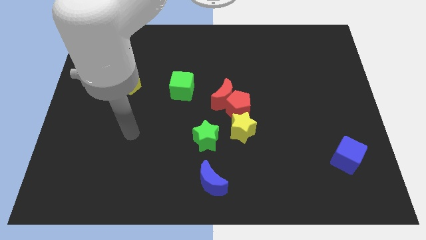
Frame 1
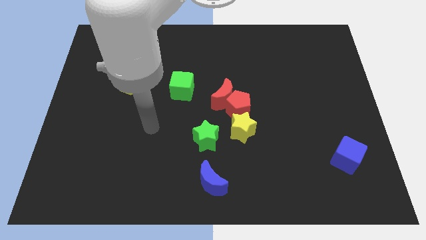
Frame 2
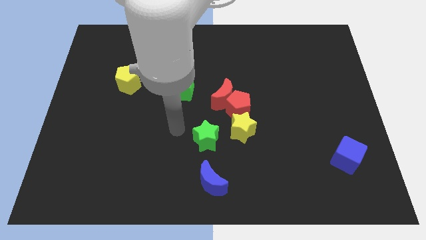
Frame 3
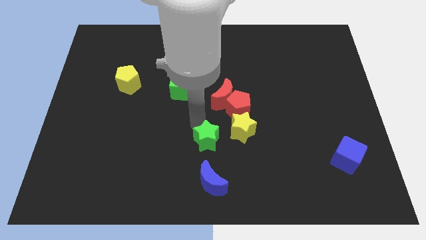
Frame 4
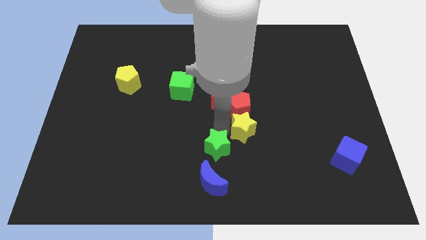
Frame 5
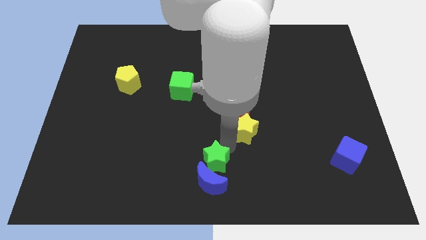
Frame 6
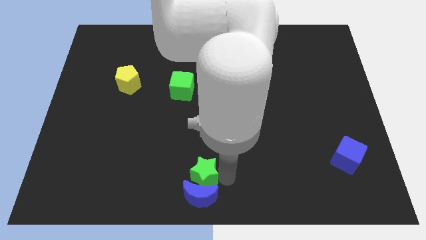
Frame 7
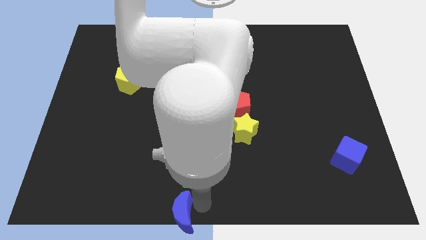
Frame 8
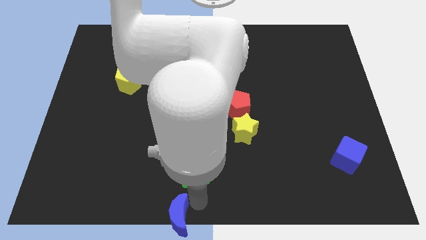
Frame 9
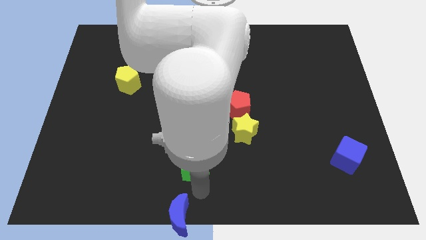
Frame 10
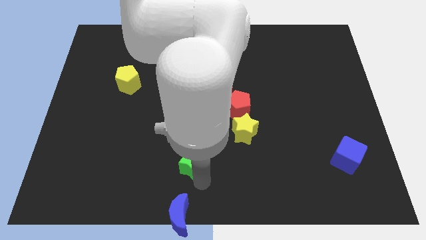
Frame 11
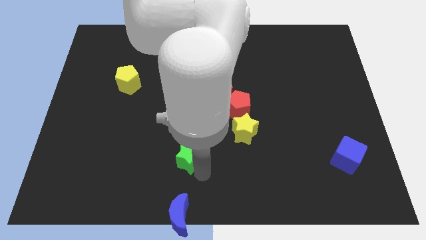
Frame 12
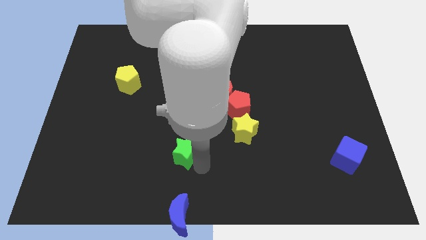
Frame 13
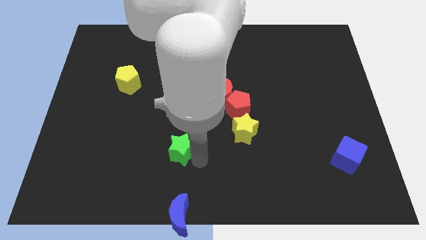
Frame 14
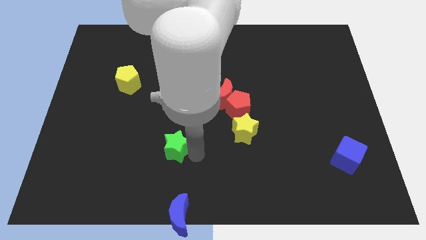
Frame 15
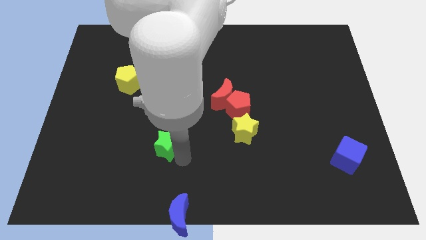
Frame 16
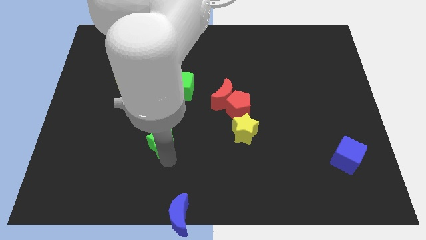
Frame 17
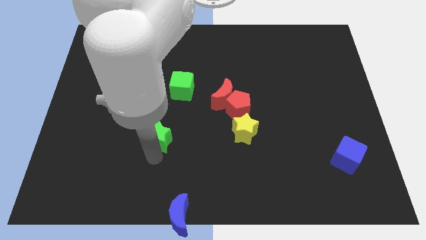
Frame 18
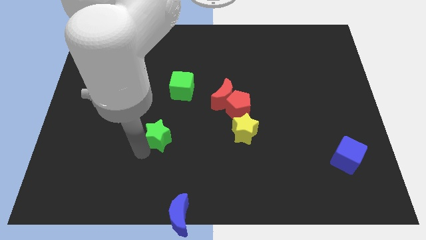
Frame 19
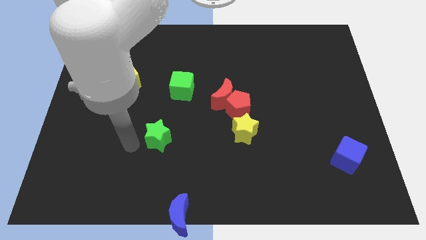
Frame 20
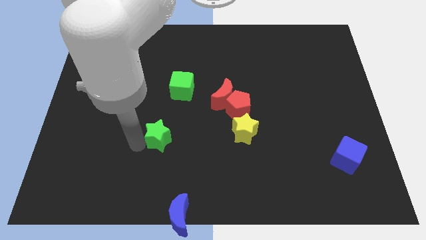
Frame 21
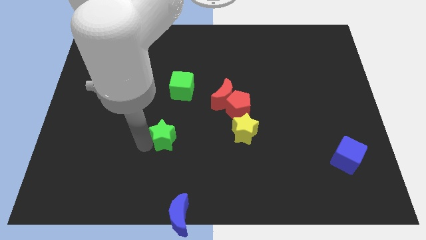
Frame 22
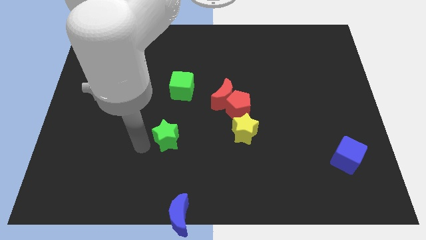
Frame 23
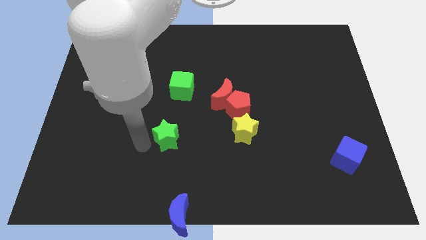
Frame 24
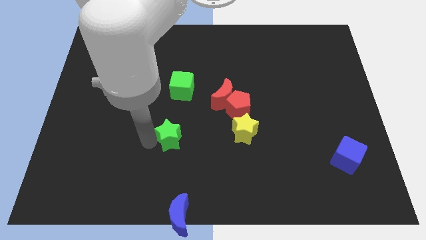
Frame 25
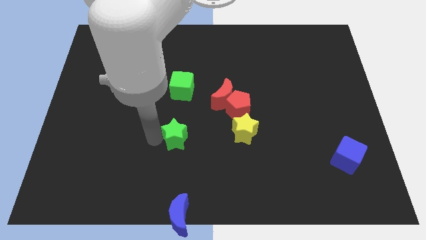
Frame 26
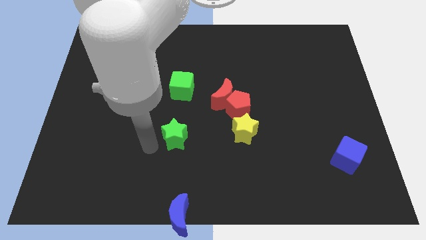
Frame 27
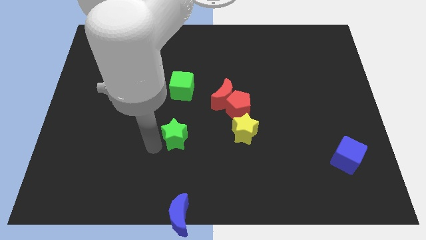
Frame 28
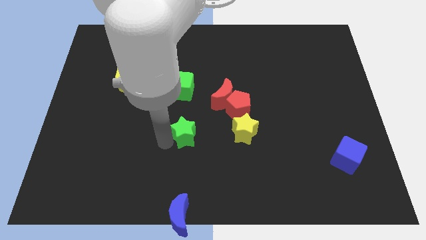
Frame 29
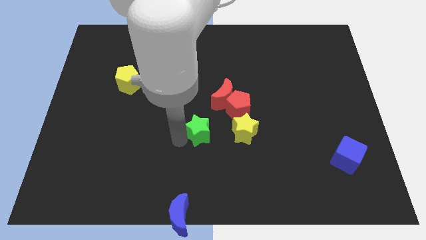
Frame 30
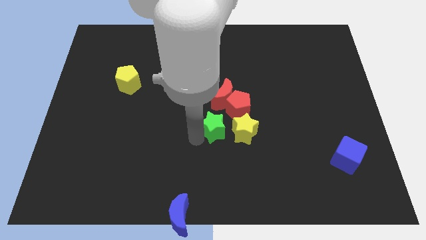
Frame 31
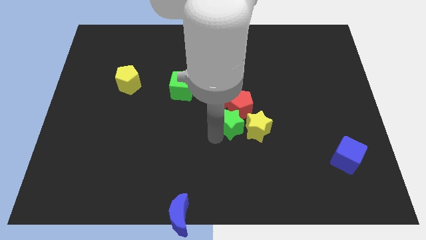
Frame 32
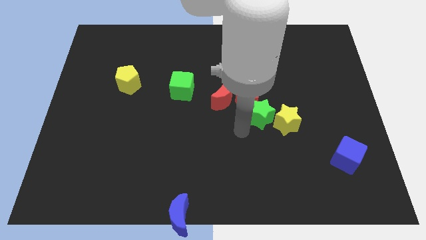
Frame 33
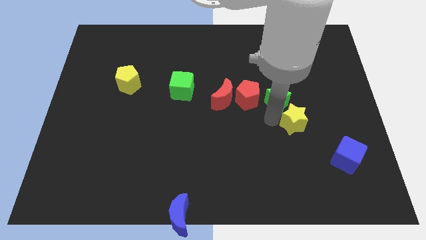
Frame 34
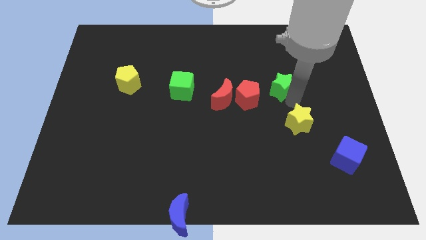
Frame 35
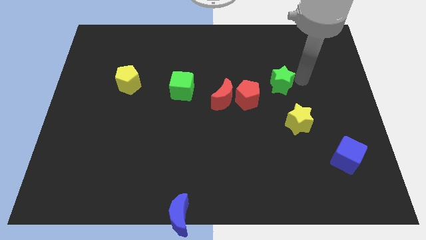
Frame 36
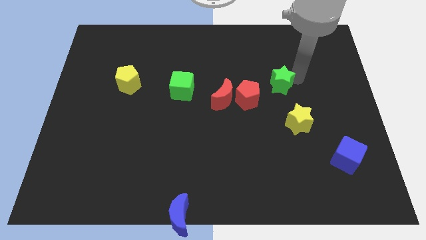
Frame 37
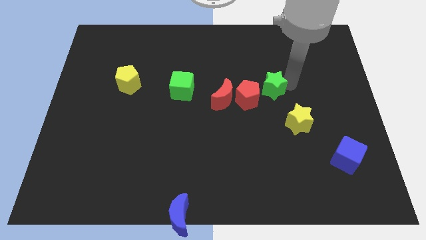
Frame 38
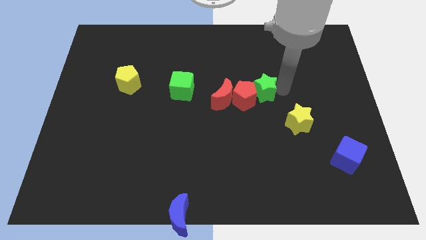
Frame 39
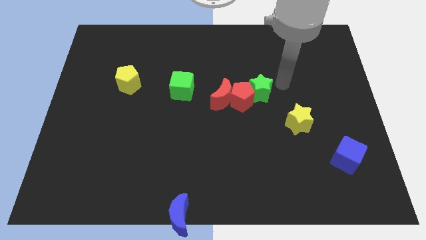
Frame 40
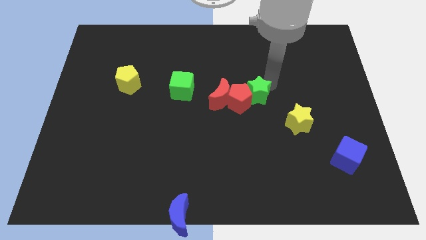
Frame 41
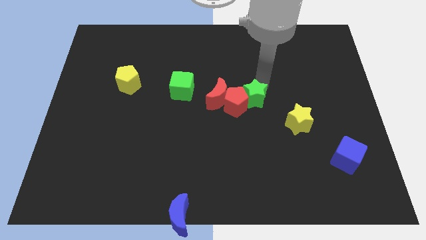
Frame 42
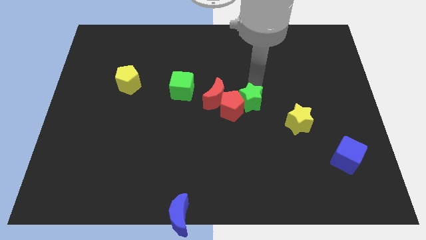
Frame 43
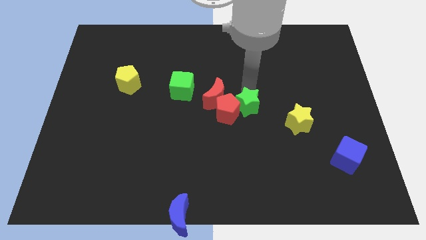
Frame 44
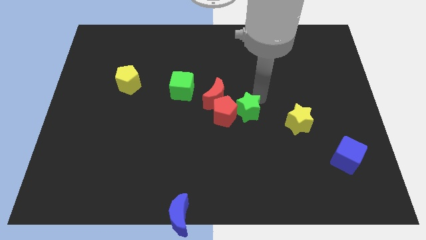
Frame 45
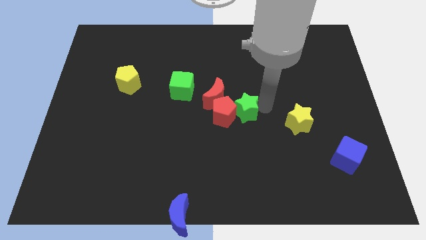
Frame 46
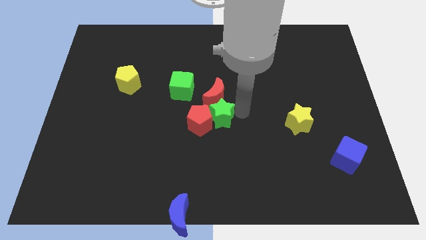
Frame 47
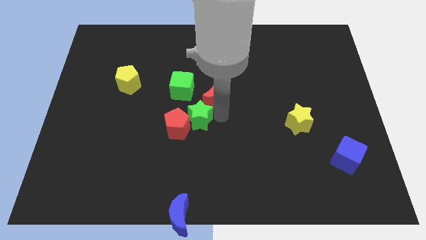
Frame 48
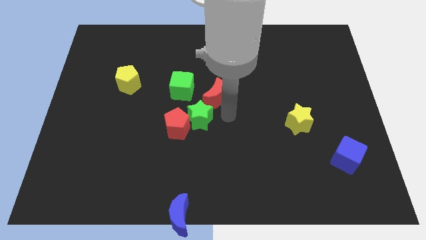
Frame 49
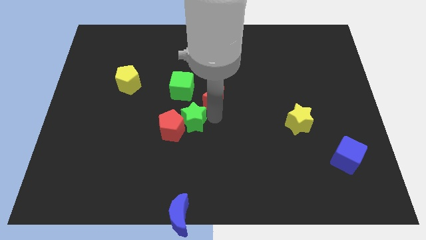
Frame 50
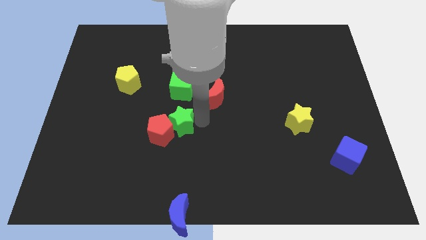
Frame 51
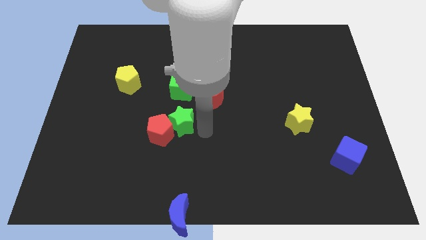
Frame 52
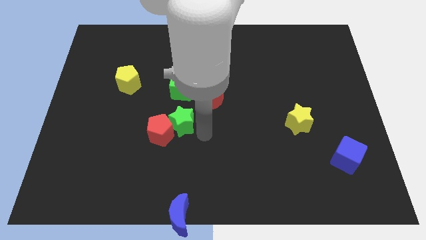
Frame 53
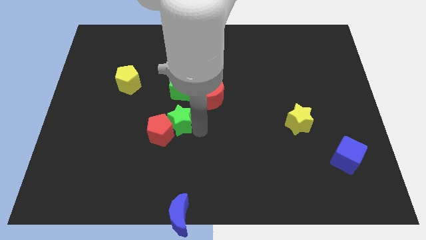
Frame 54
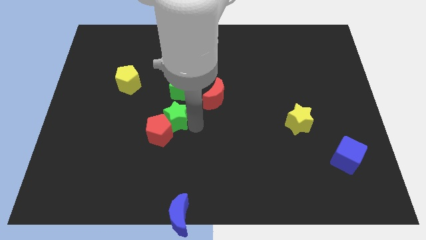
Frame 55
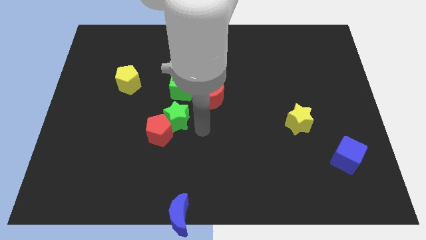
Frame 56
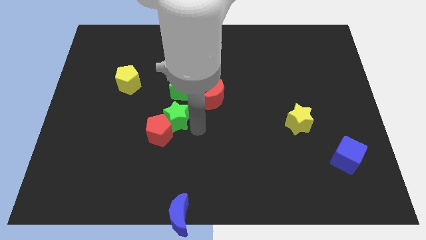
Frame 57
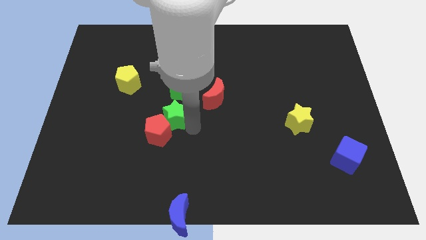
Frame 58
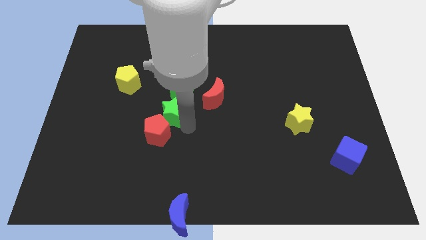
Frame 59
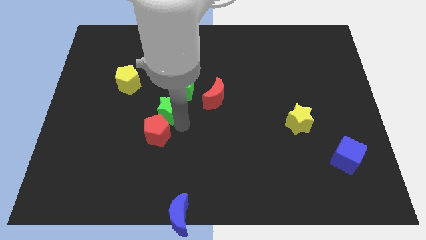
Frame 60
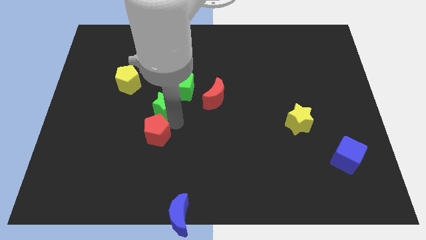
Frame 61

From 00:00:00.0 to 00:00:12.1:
put the green star to the bottom right side of the yellow pentagon

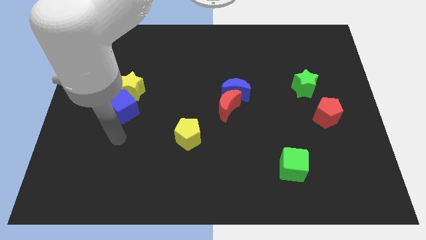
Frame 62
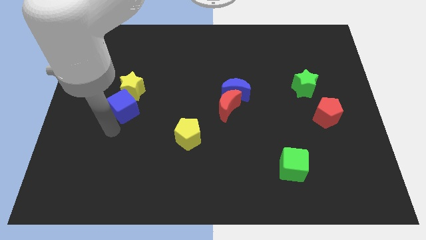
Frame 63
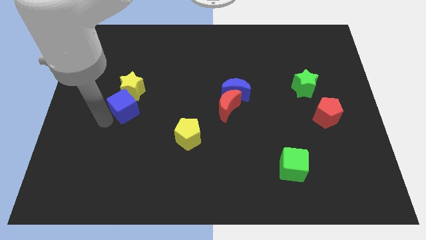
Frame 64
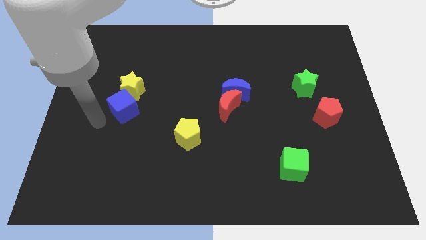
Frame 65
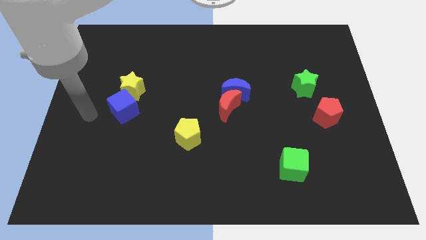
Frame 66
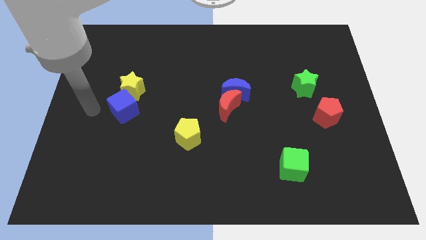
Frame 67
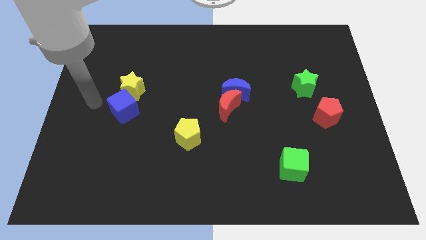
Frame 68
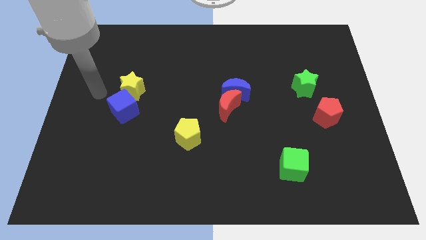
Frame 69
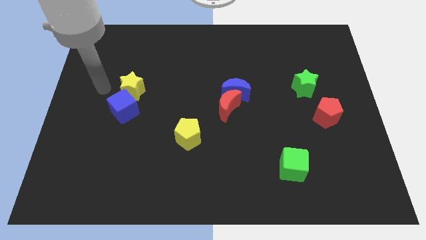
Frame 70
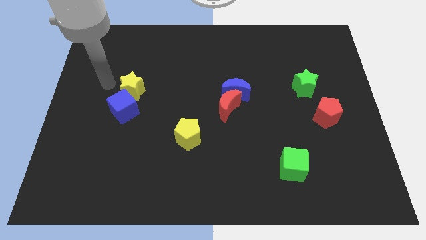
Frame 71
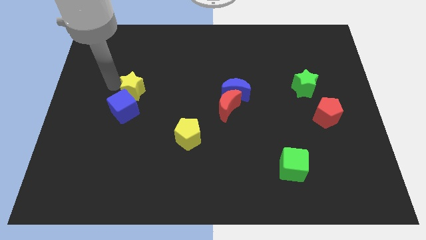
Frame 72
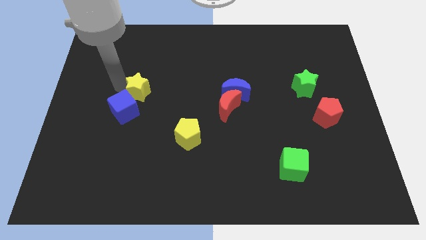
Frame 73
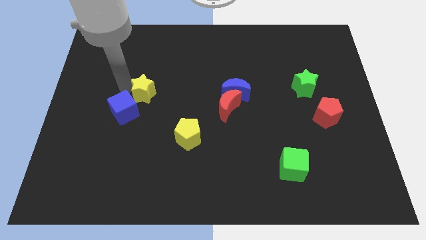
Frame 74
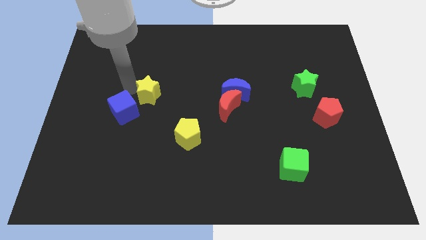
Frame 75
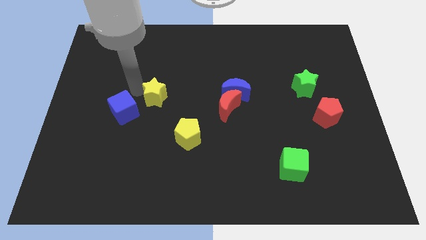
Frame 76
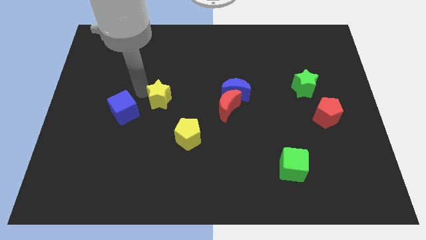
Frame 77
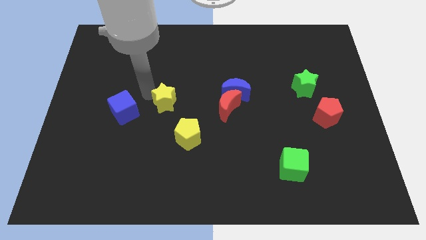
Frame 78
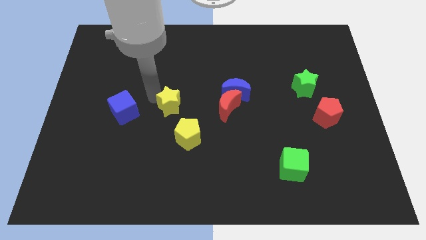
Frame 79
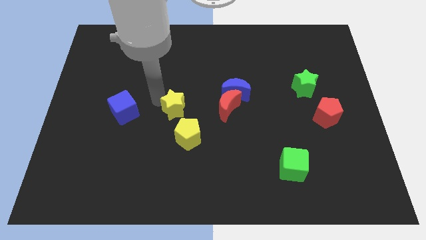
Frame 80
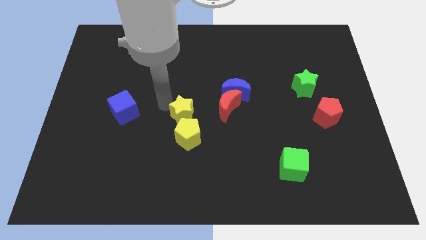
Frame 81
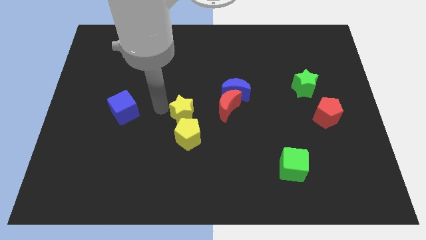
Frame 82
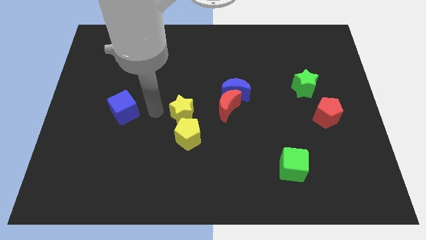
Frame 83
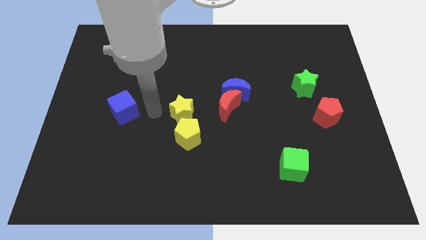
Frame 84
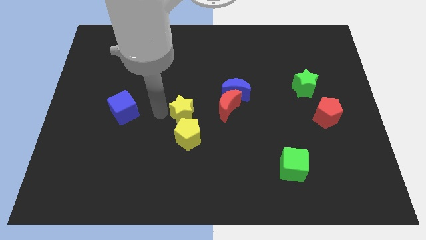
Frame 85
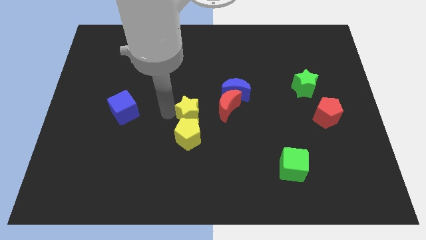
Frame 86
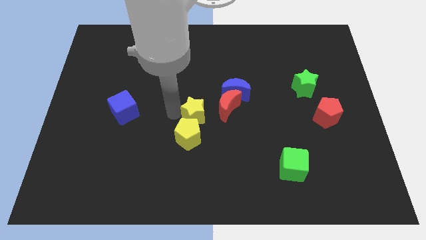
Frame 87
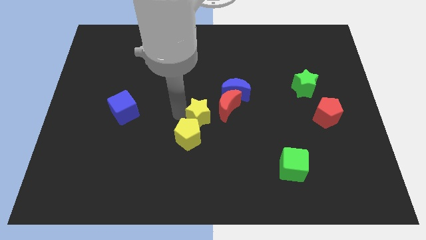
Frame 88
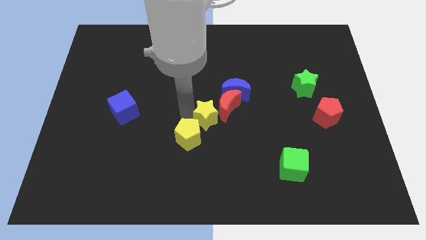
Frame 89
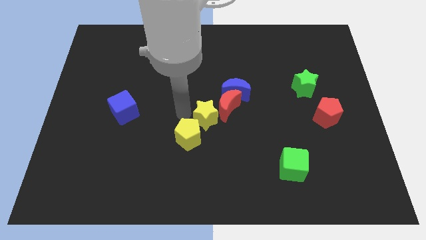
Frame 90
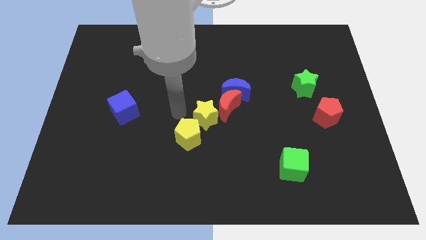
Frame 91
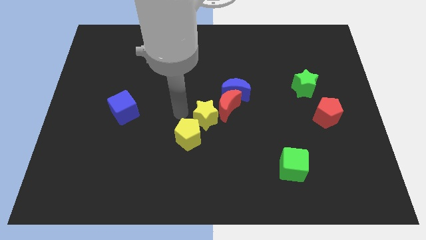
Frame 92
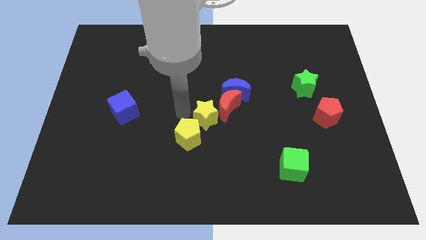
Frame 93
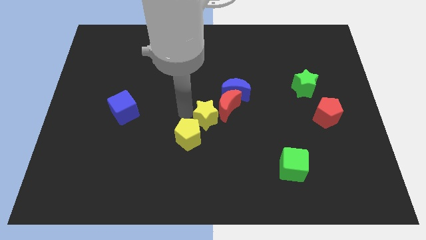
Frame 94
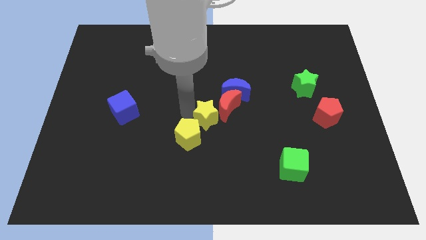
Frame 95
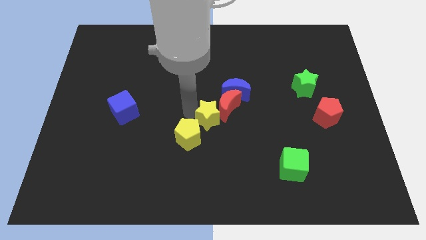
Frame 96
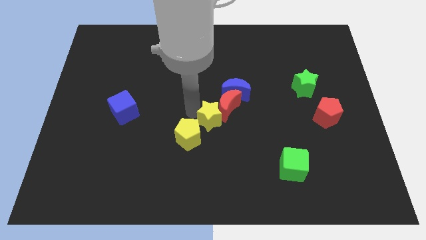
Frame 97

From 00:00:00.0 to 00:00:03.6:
push the yellow star to the bottom side of the red moon
